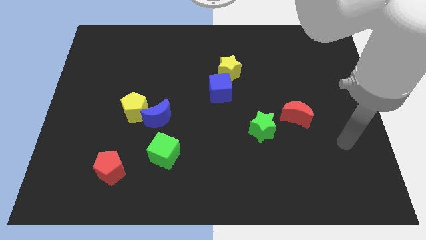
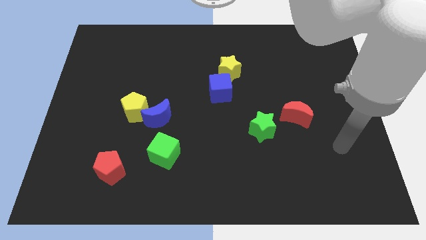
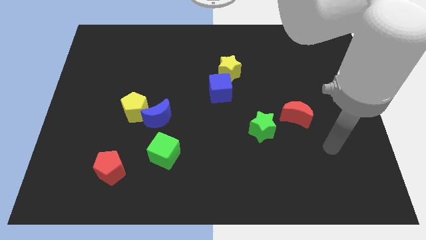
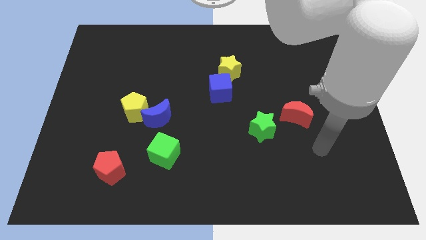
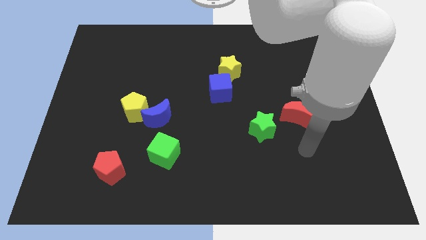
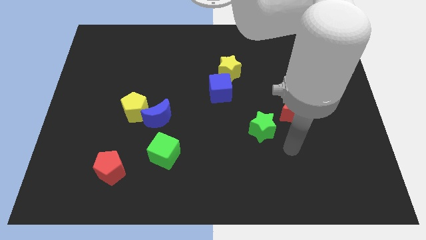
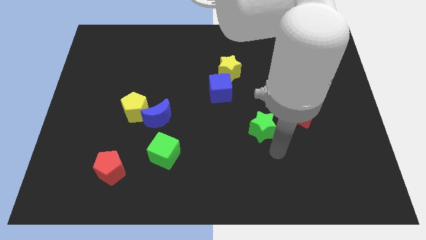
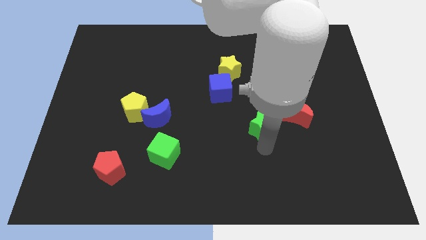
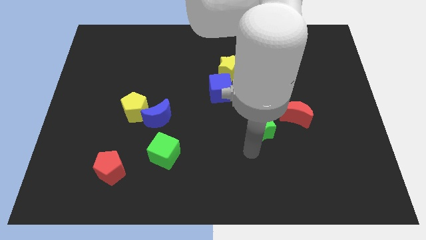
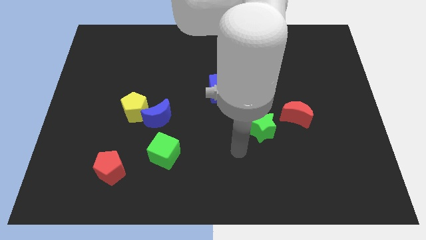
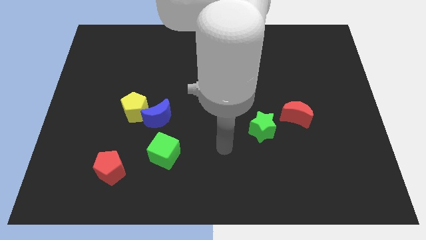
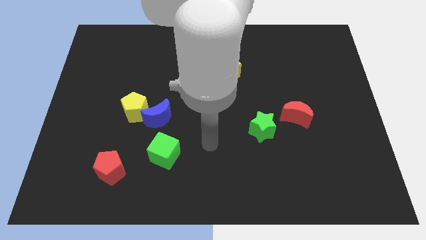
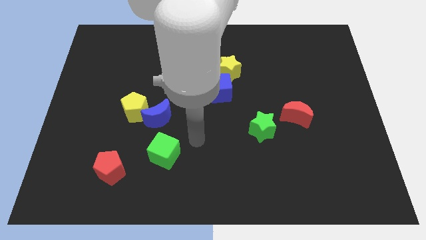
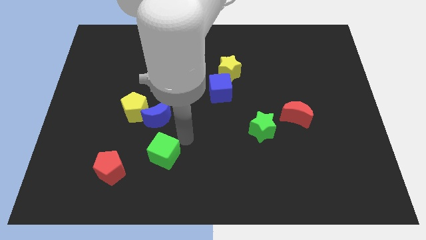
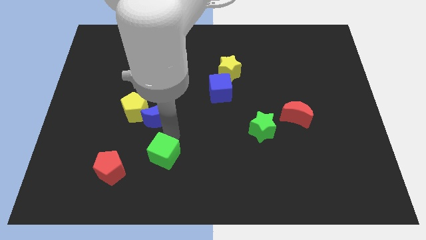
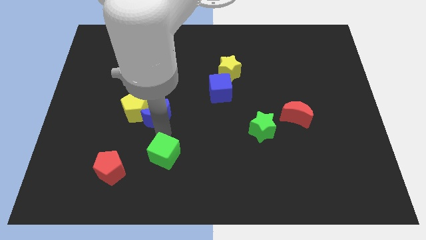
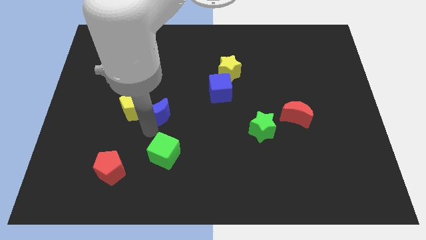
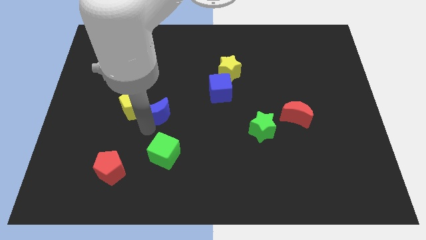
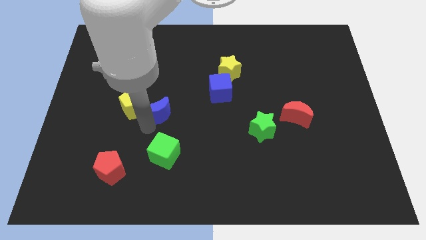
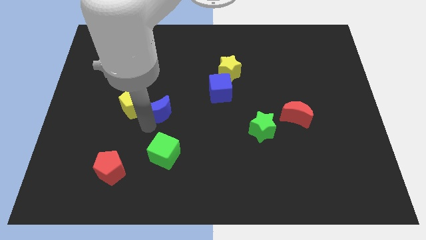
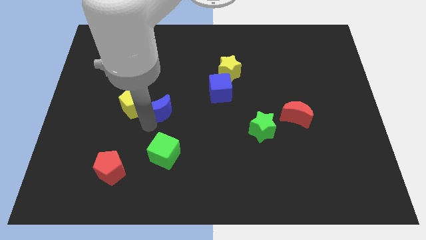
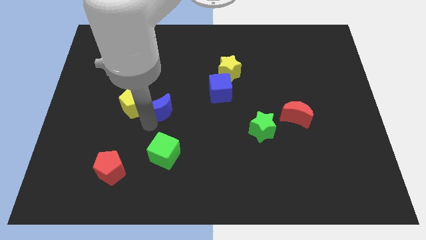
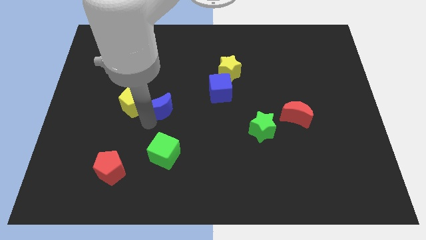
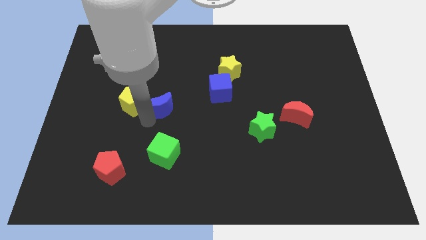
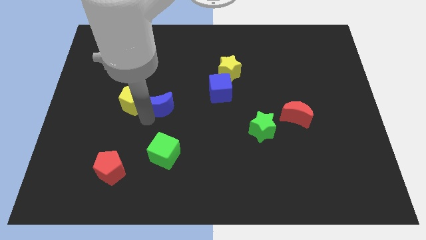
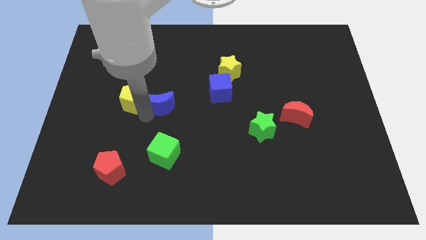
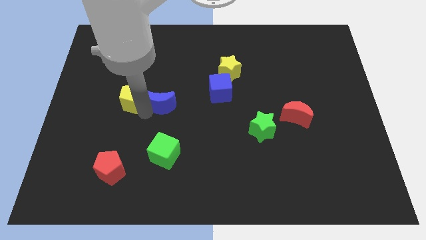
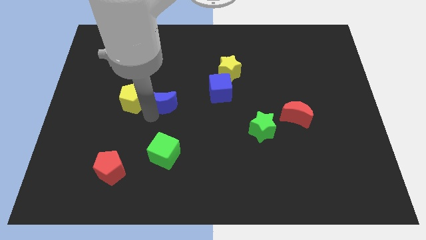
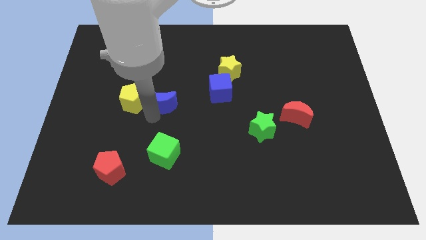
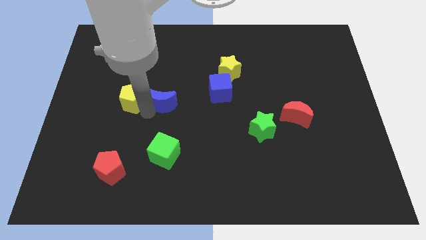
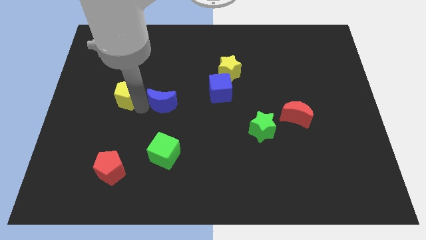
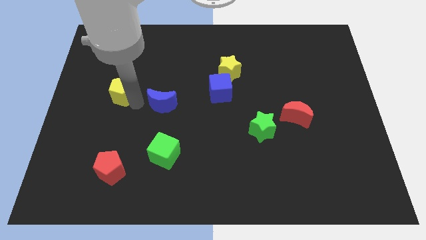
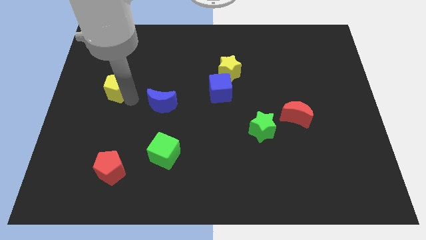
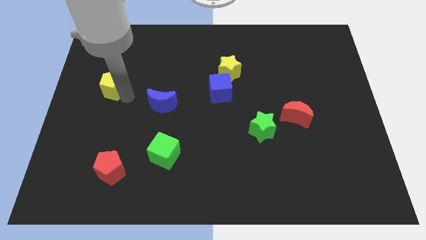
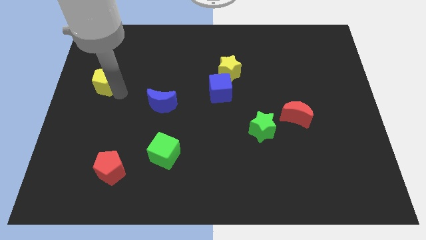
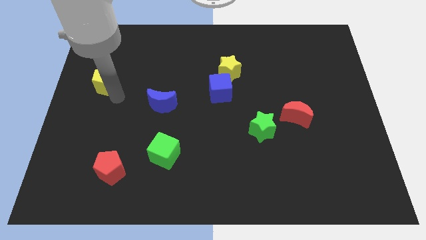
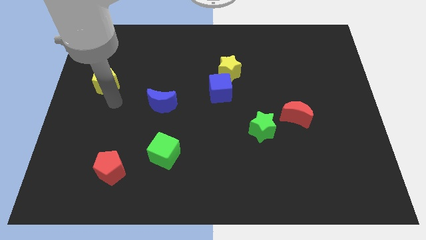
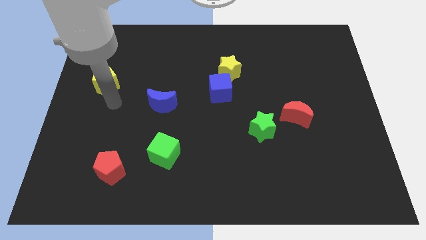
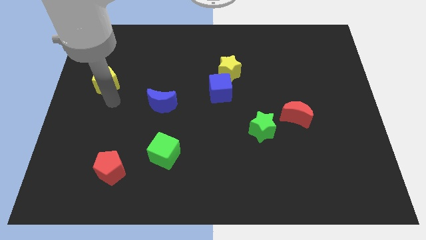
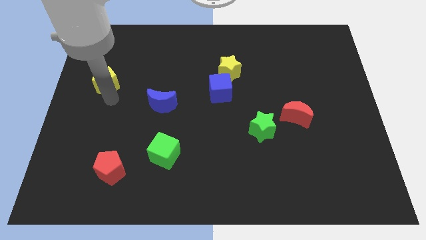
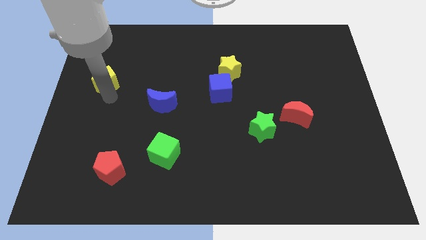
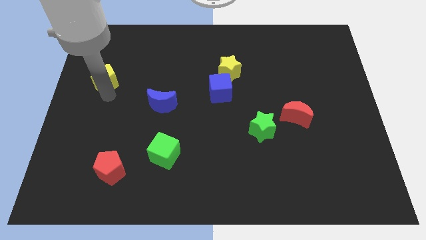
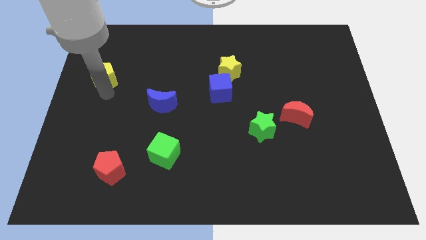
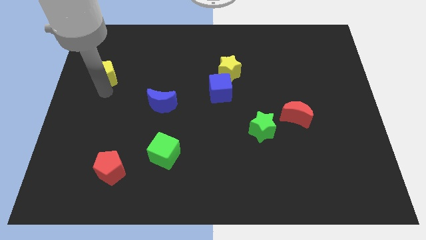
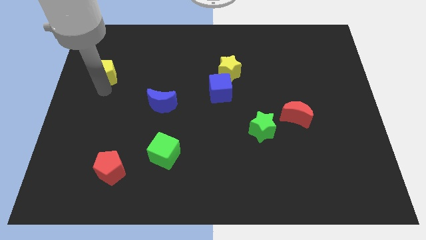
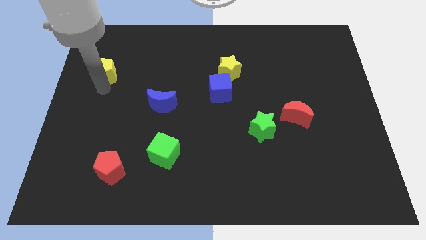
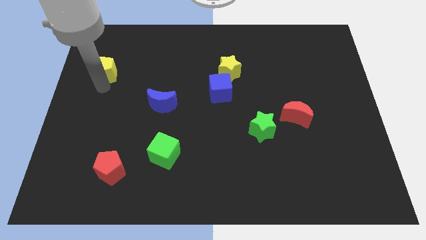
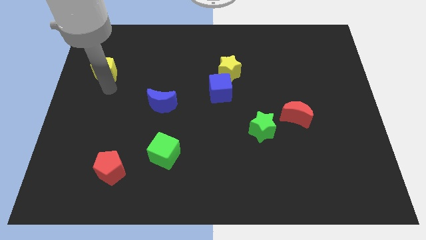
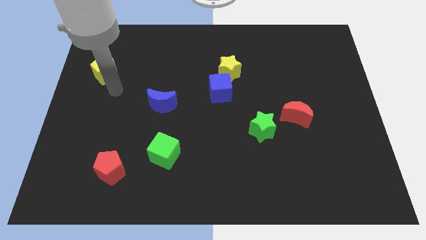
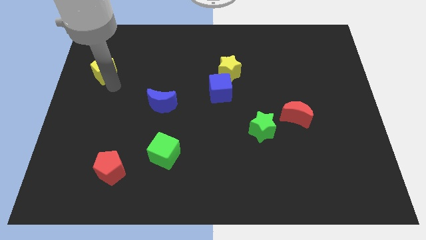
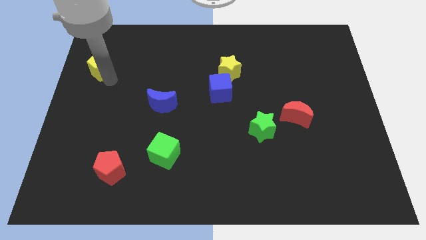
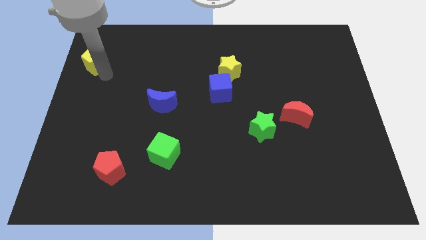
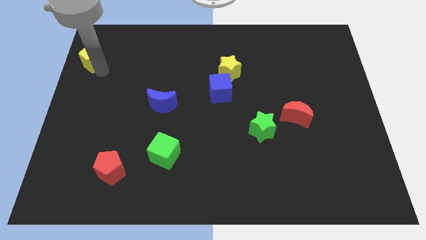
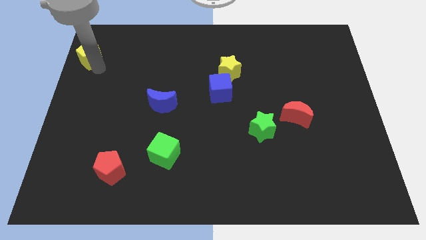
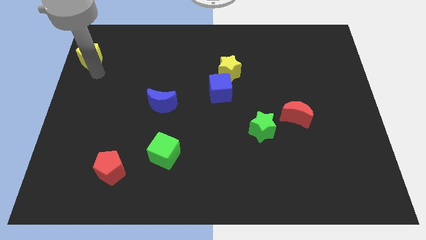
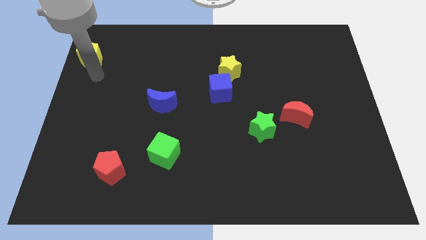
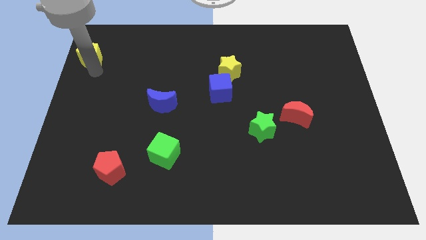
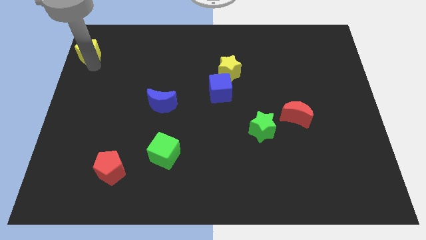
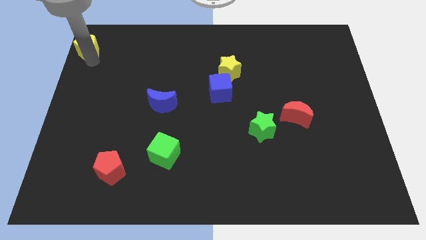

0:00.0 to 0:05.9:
push the yellow pentagon to the upper left corner

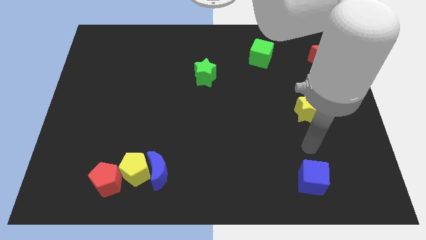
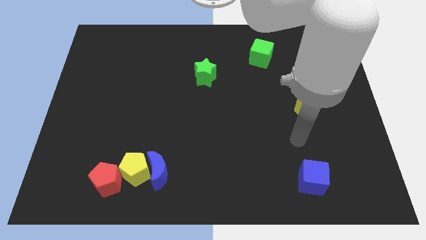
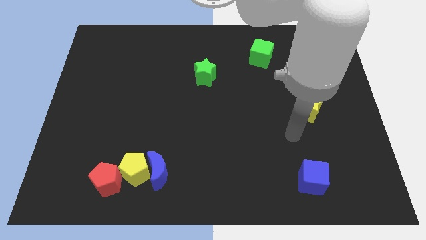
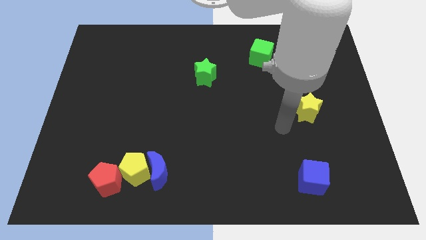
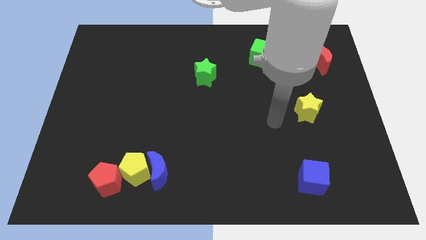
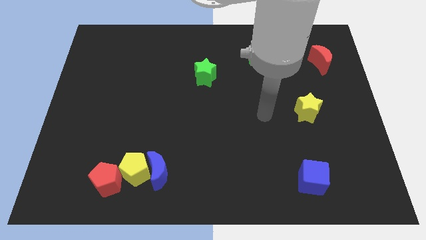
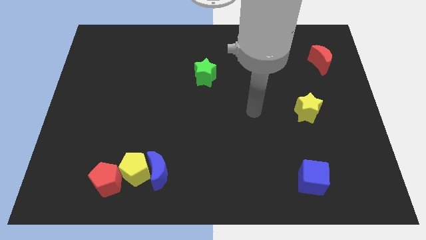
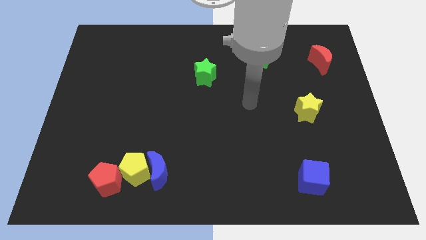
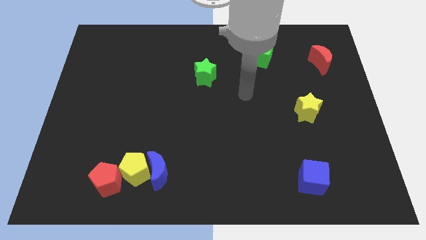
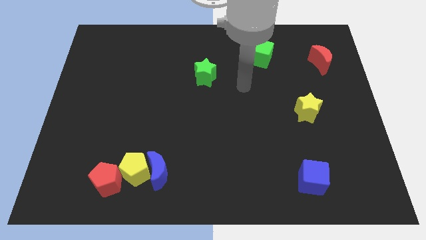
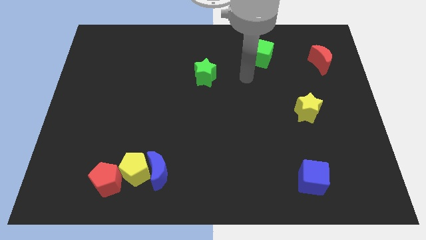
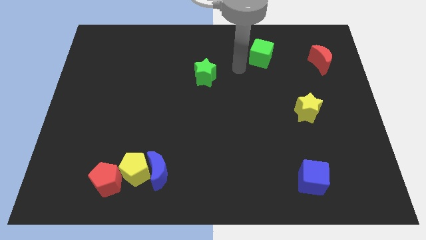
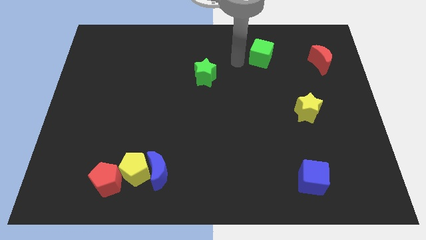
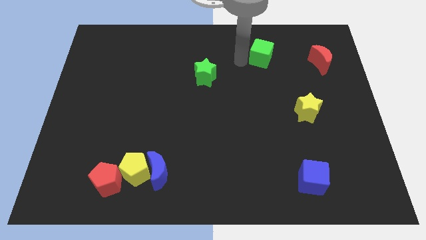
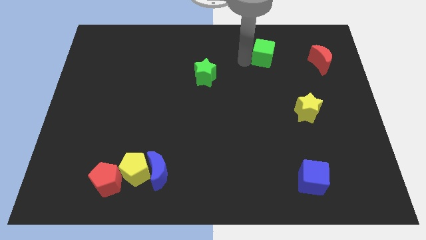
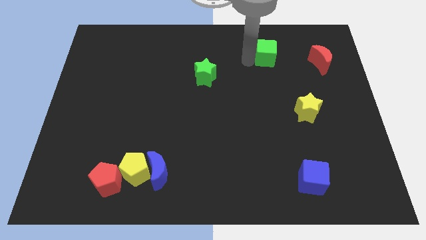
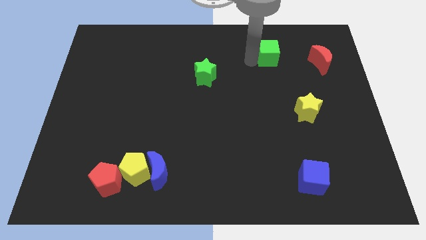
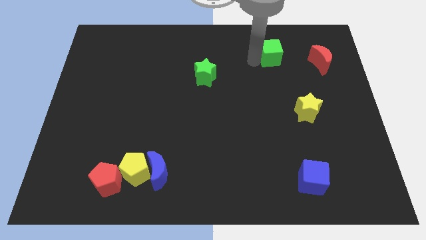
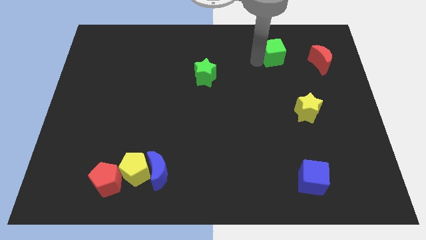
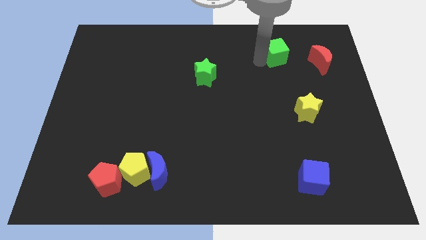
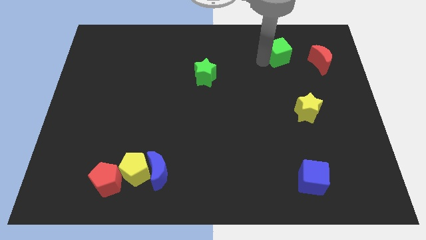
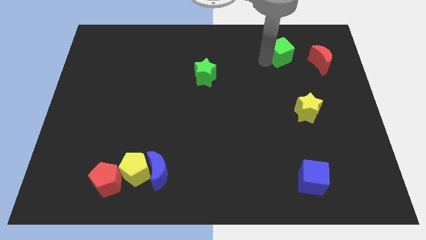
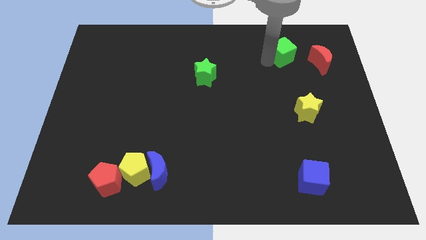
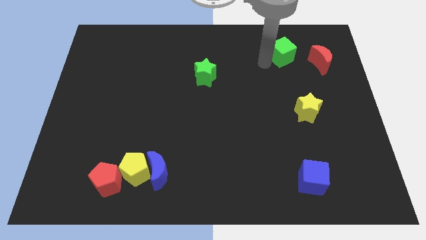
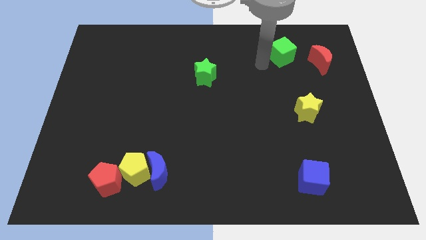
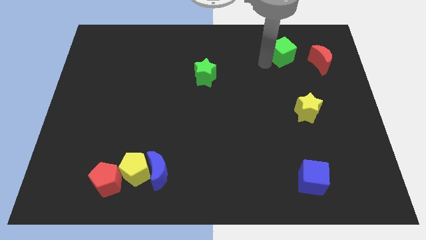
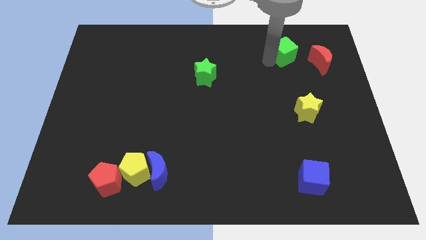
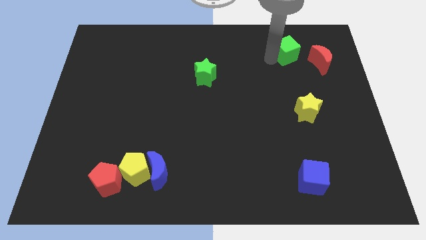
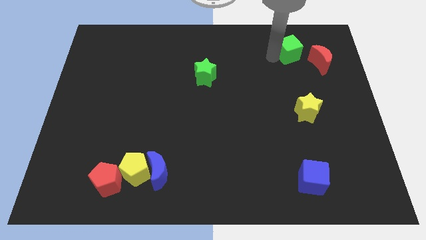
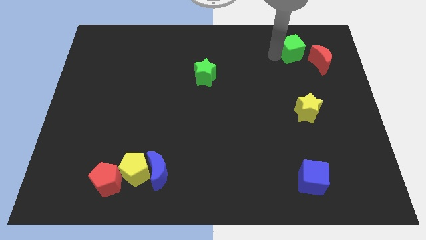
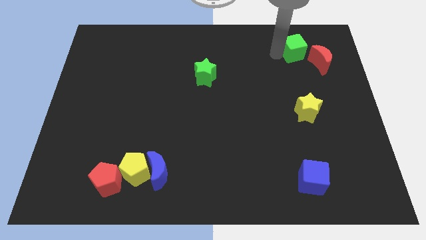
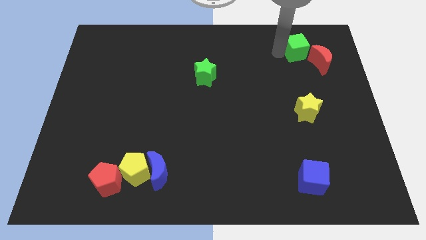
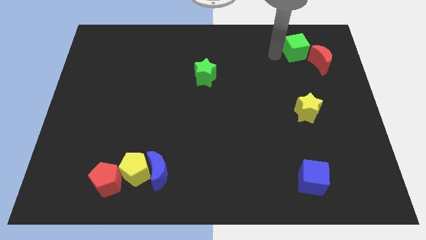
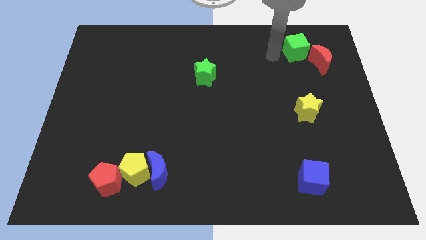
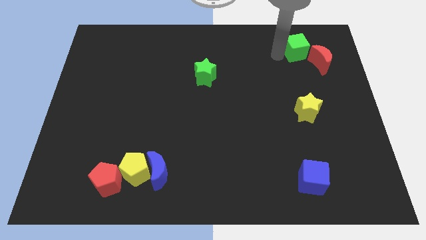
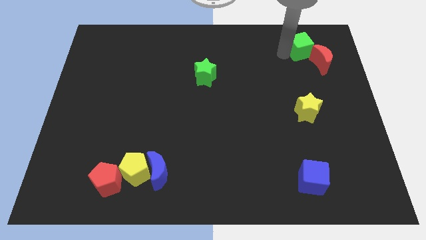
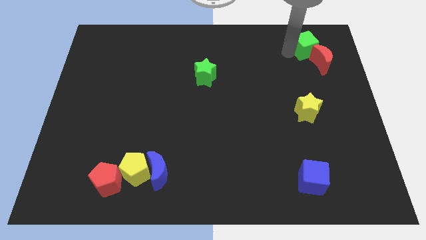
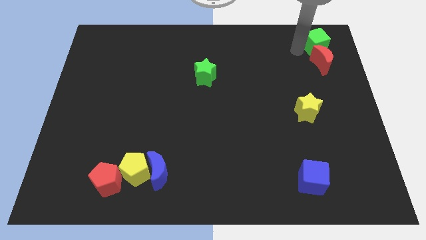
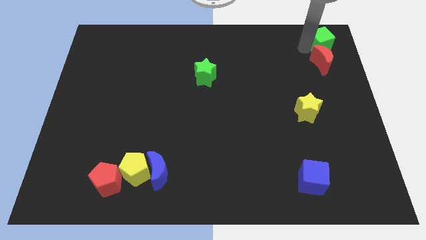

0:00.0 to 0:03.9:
move the green cube to the top right of the board
